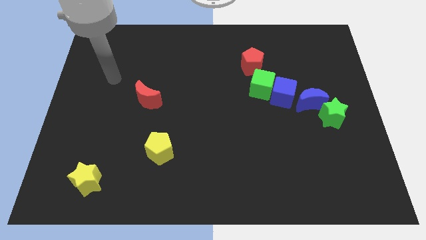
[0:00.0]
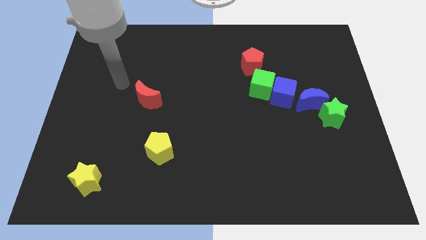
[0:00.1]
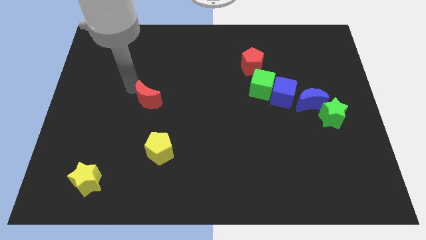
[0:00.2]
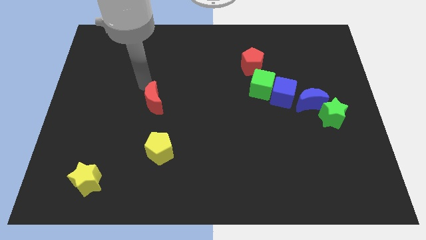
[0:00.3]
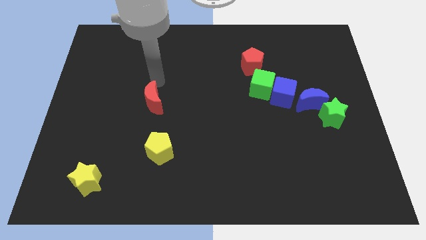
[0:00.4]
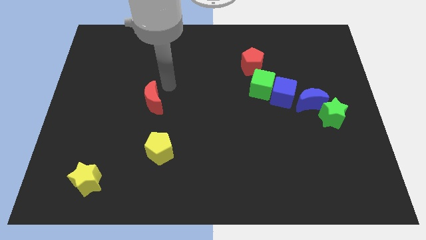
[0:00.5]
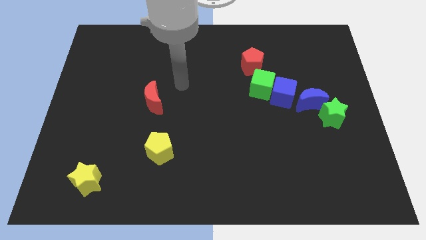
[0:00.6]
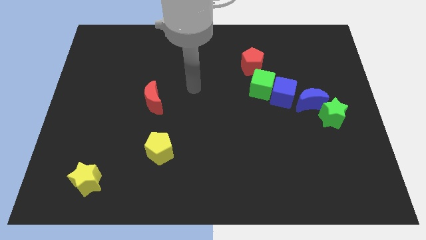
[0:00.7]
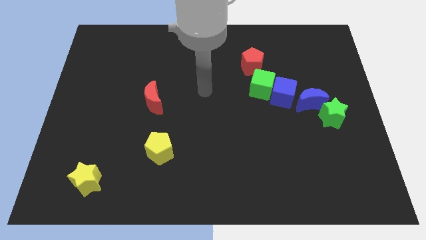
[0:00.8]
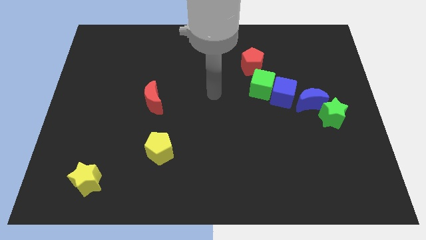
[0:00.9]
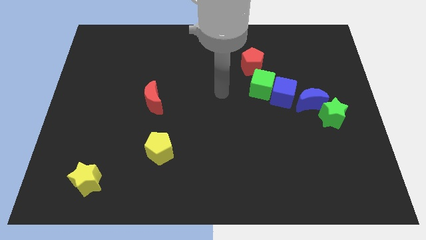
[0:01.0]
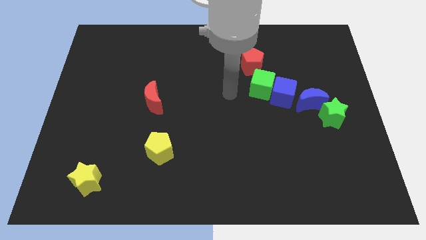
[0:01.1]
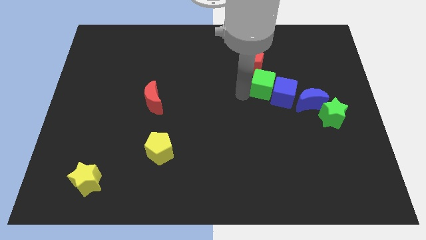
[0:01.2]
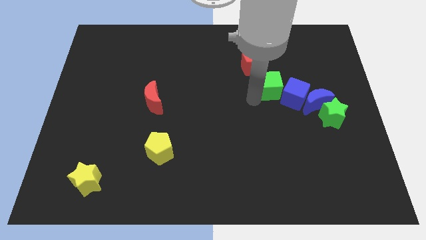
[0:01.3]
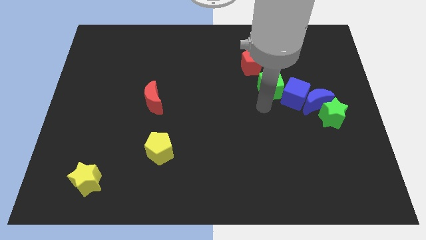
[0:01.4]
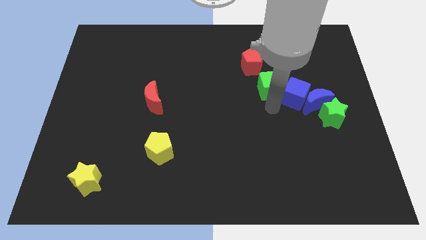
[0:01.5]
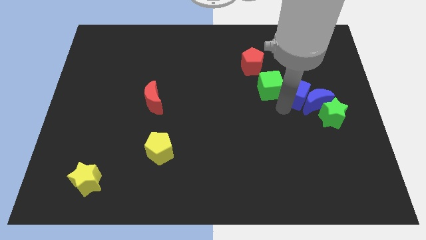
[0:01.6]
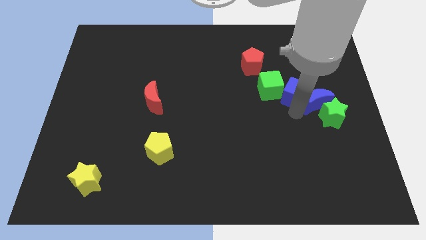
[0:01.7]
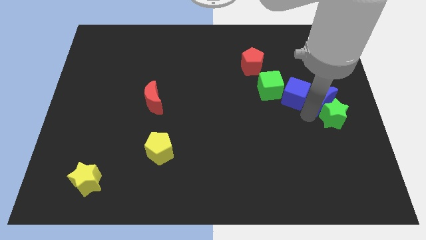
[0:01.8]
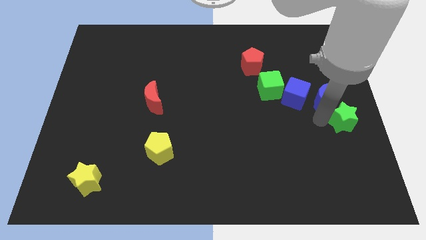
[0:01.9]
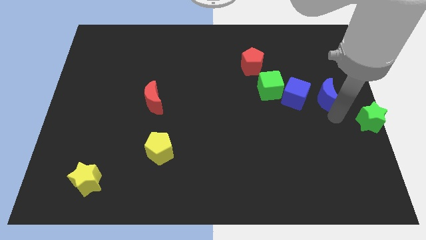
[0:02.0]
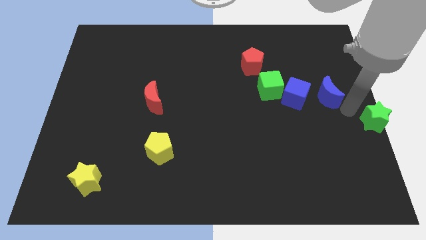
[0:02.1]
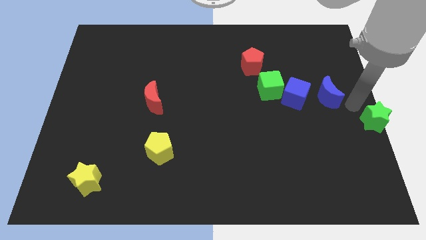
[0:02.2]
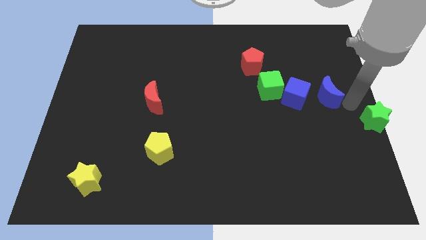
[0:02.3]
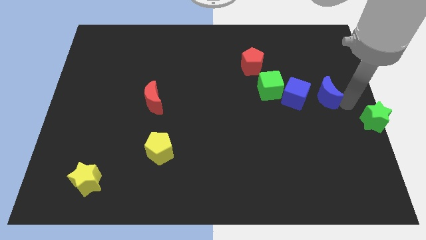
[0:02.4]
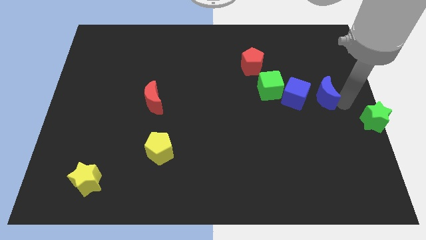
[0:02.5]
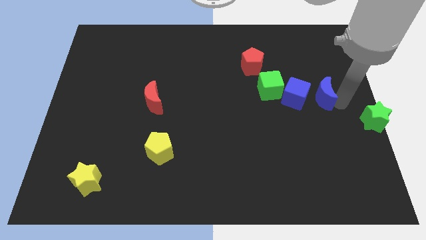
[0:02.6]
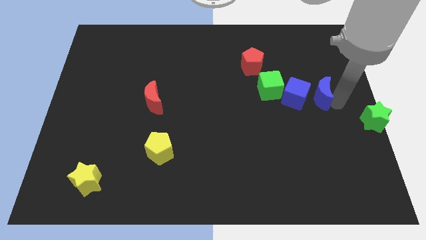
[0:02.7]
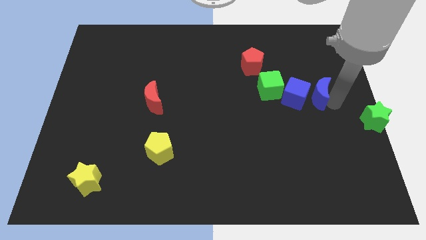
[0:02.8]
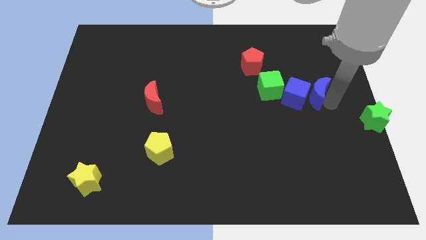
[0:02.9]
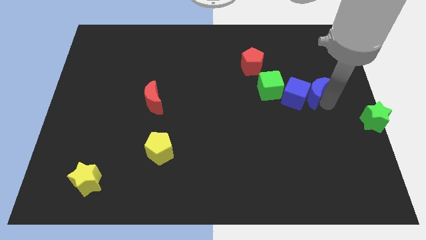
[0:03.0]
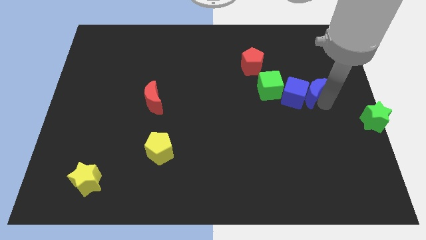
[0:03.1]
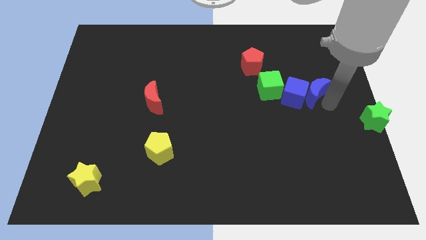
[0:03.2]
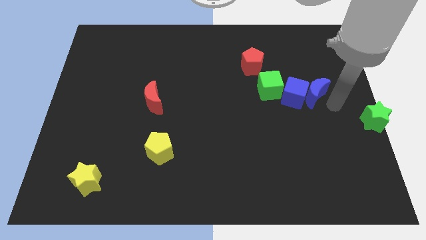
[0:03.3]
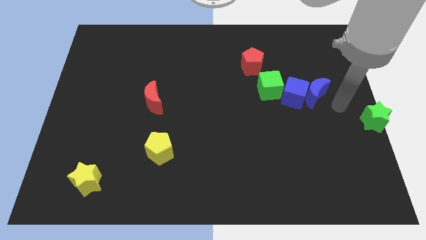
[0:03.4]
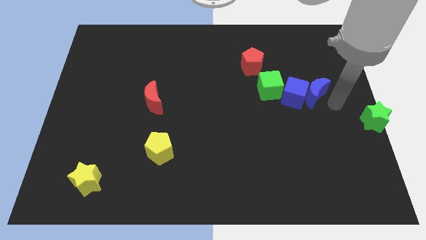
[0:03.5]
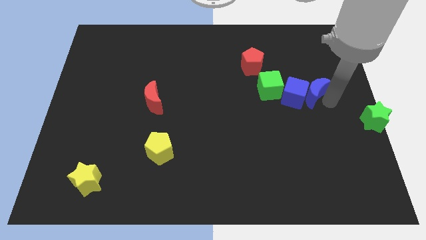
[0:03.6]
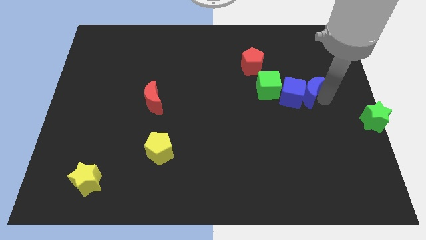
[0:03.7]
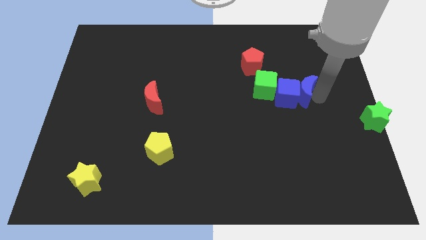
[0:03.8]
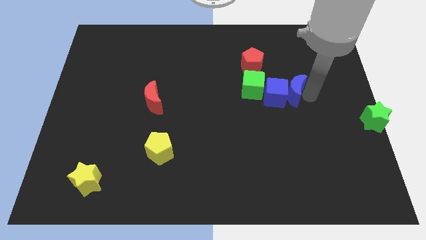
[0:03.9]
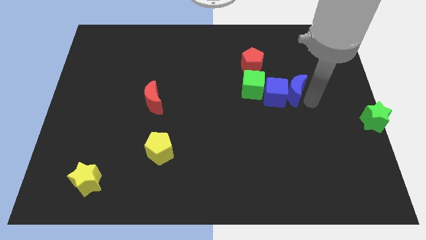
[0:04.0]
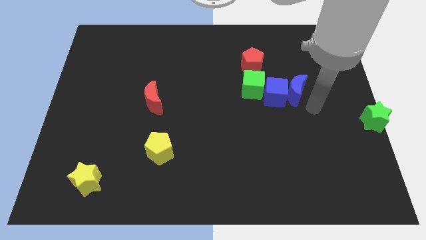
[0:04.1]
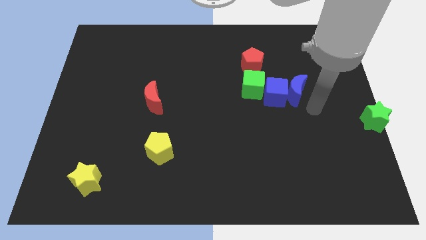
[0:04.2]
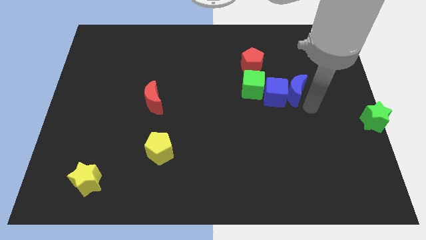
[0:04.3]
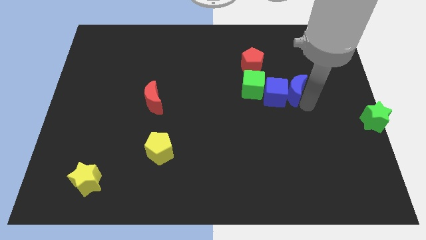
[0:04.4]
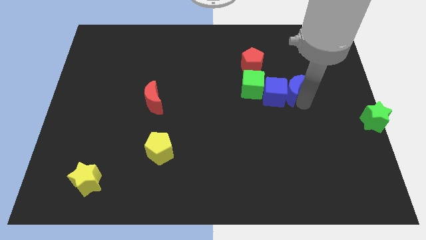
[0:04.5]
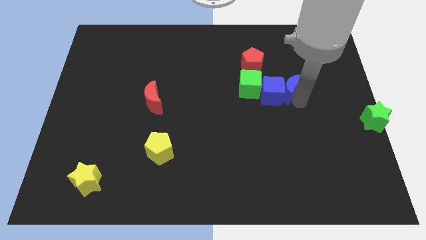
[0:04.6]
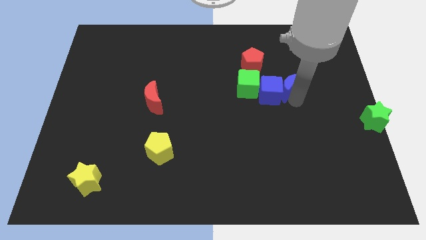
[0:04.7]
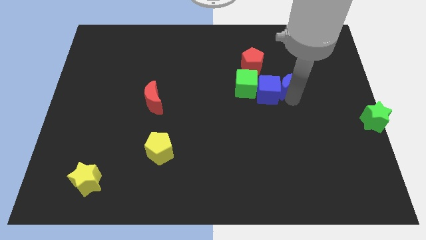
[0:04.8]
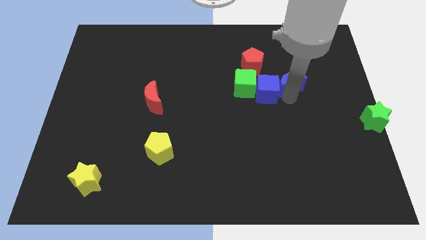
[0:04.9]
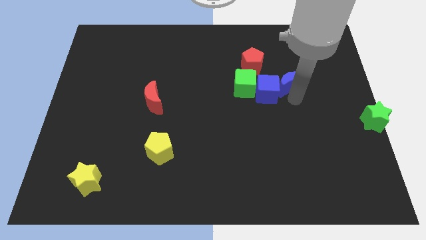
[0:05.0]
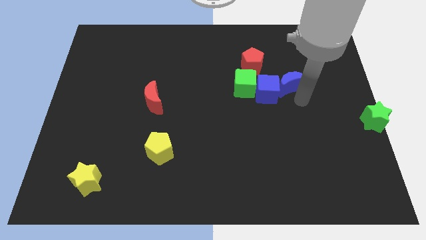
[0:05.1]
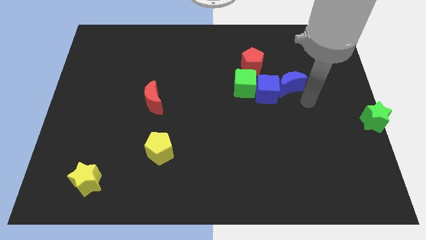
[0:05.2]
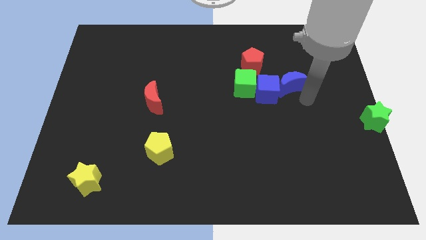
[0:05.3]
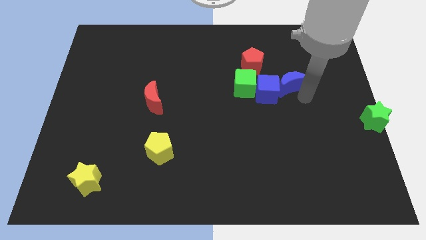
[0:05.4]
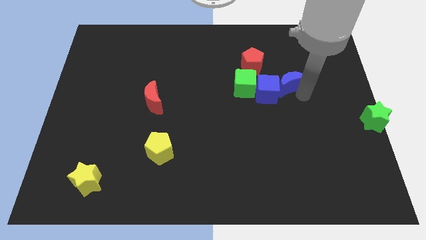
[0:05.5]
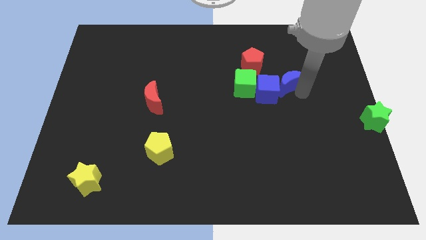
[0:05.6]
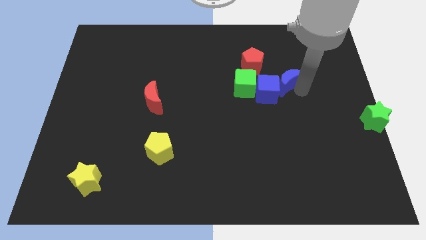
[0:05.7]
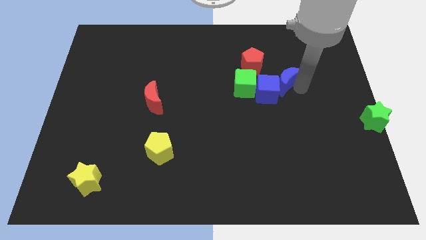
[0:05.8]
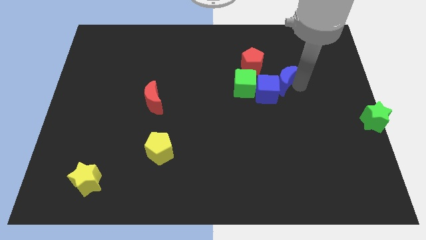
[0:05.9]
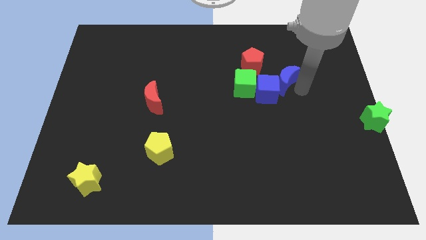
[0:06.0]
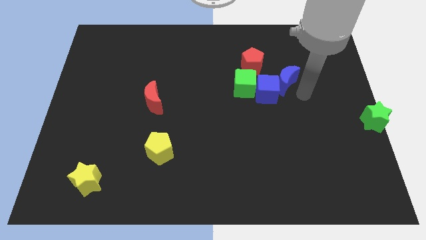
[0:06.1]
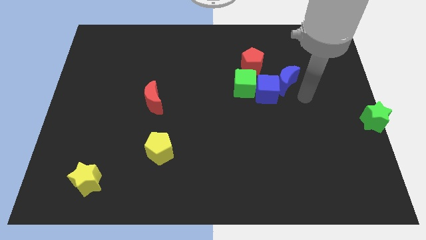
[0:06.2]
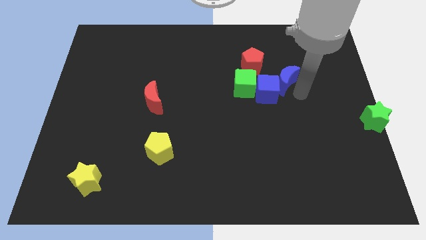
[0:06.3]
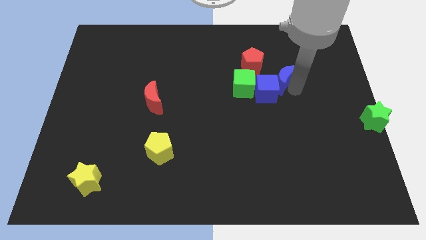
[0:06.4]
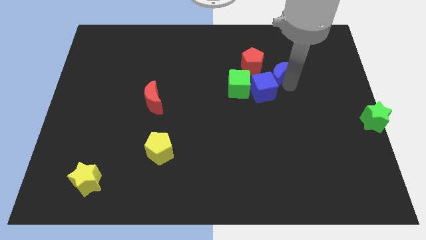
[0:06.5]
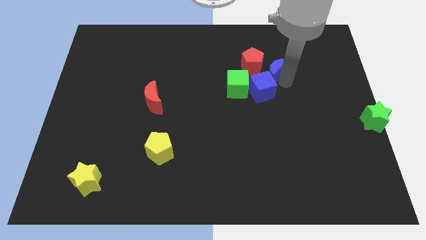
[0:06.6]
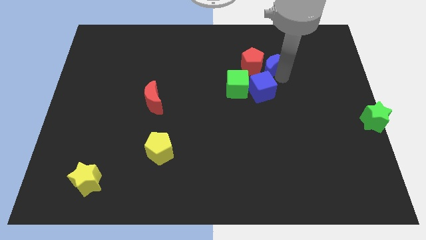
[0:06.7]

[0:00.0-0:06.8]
put the blue moon next to the red pentagon

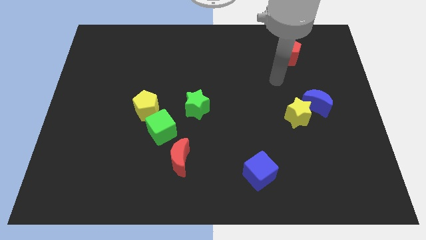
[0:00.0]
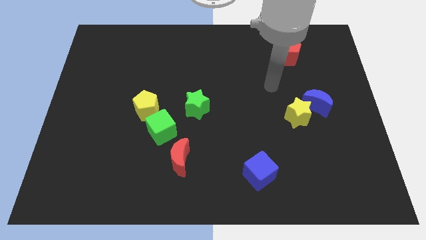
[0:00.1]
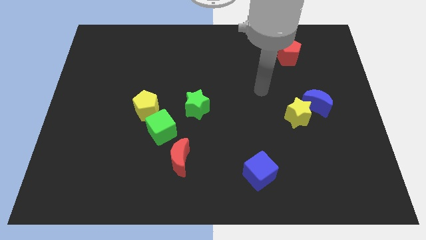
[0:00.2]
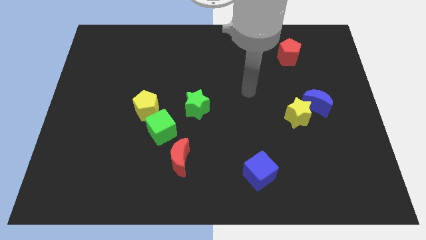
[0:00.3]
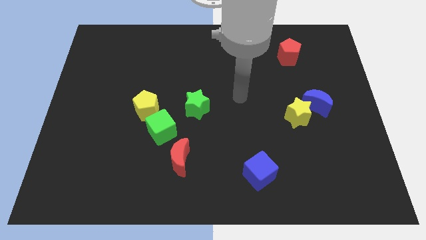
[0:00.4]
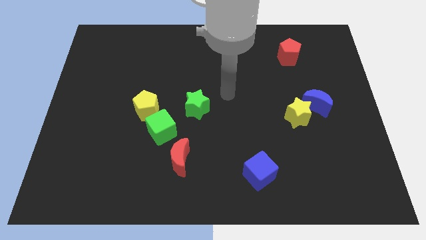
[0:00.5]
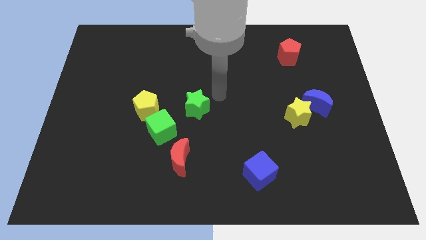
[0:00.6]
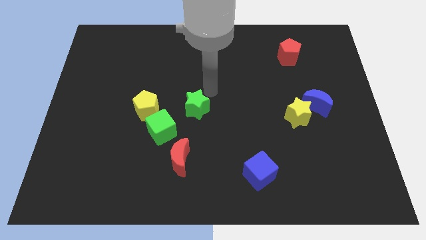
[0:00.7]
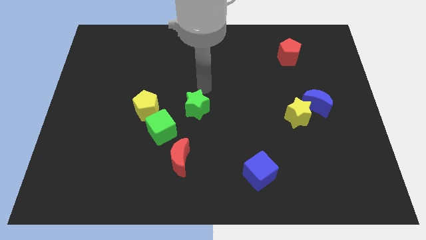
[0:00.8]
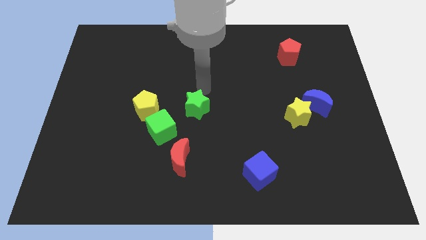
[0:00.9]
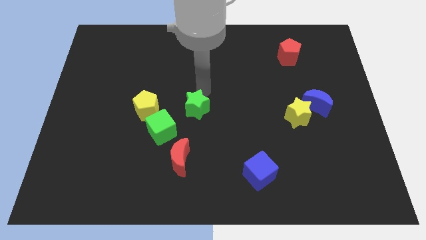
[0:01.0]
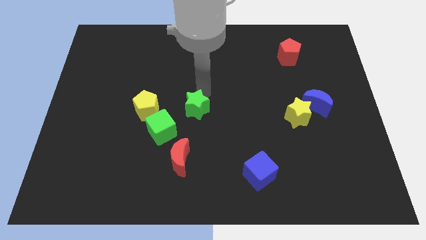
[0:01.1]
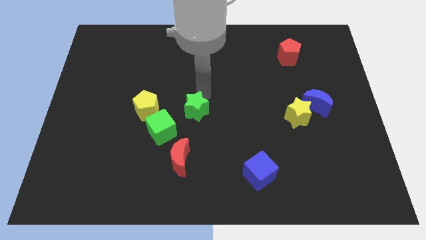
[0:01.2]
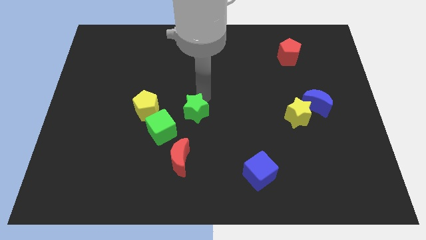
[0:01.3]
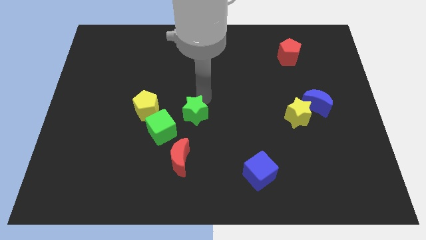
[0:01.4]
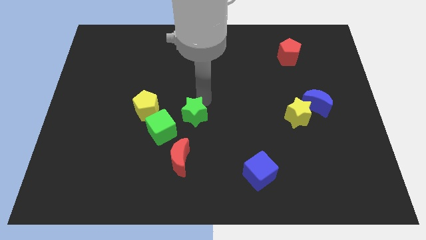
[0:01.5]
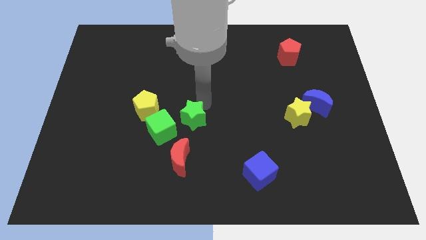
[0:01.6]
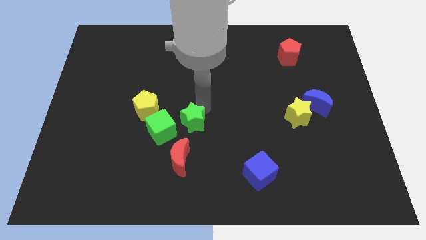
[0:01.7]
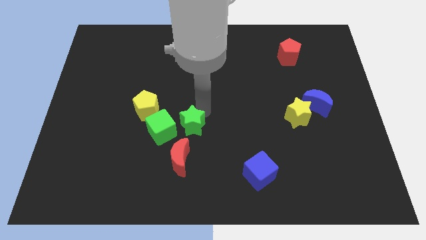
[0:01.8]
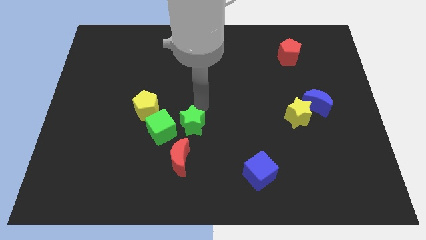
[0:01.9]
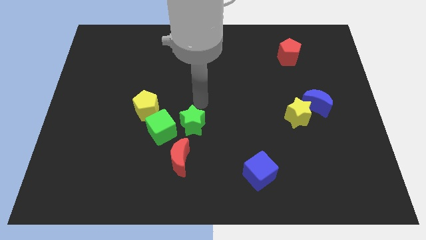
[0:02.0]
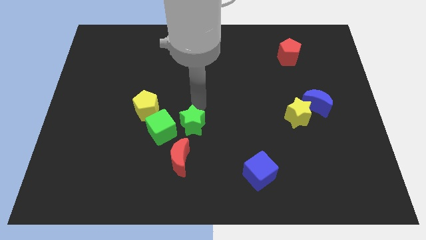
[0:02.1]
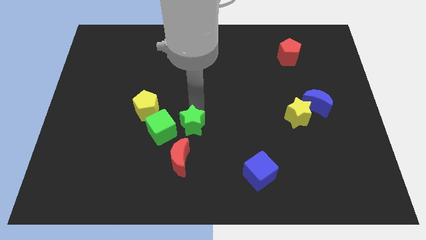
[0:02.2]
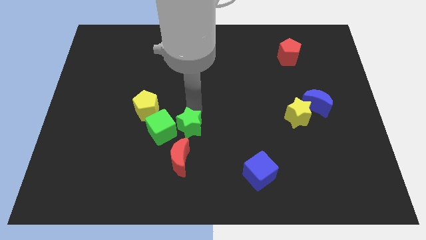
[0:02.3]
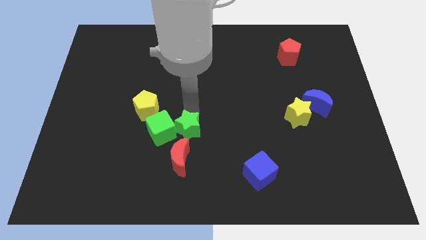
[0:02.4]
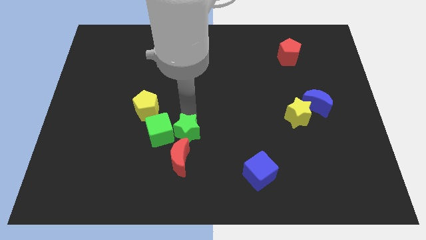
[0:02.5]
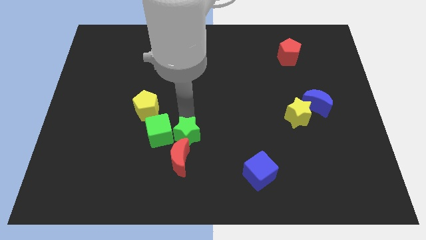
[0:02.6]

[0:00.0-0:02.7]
push the green star close to the red moon
